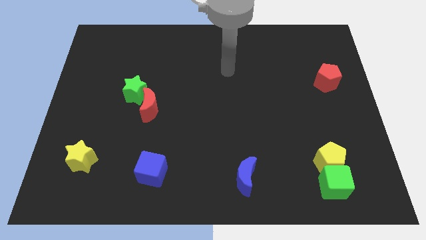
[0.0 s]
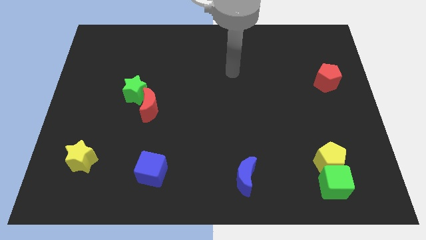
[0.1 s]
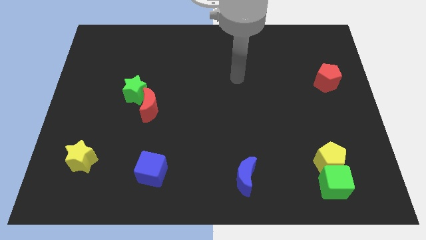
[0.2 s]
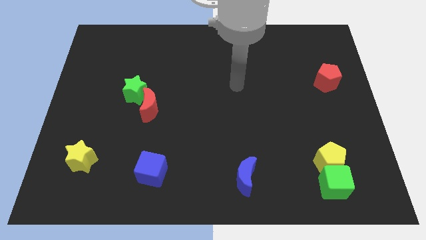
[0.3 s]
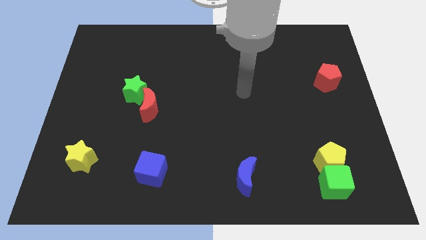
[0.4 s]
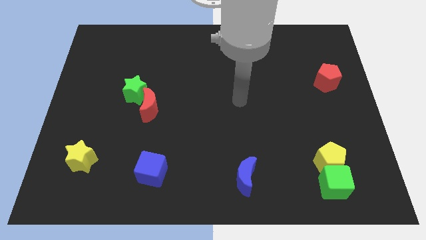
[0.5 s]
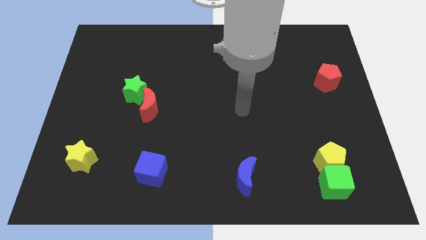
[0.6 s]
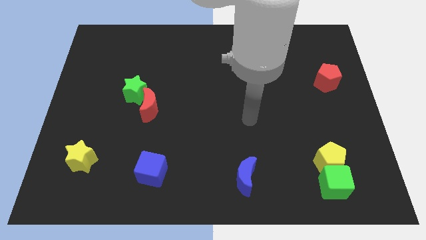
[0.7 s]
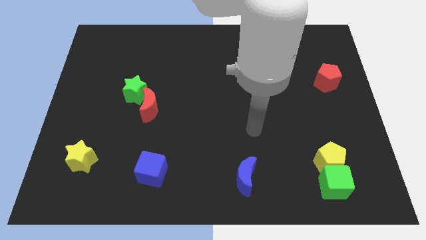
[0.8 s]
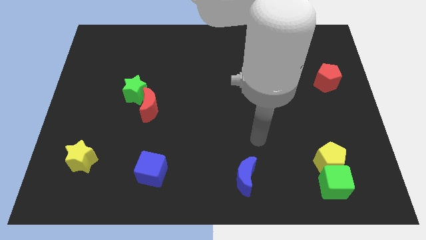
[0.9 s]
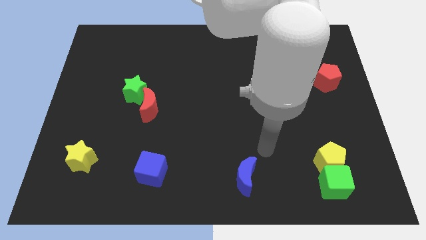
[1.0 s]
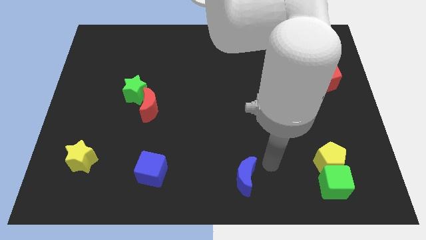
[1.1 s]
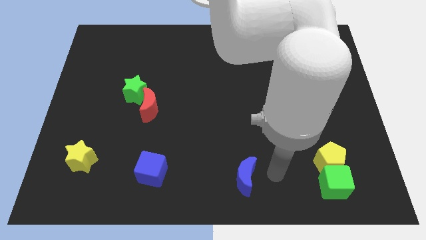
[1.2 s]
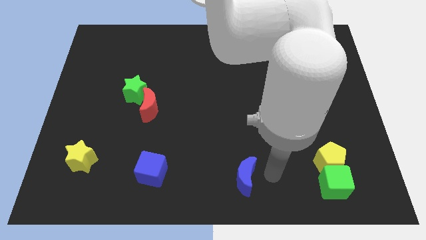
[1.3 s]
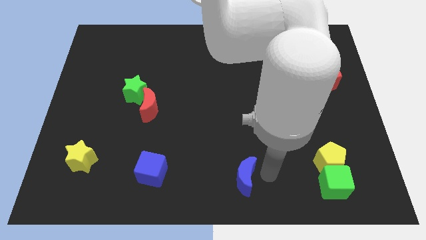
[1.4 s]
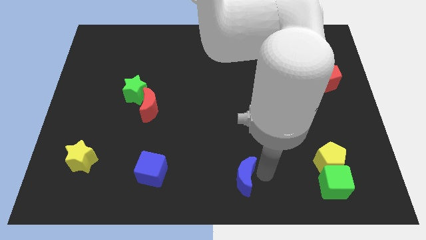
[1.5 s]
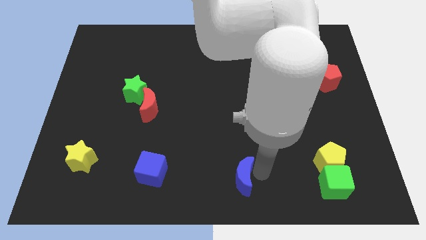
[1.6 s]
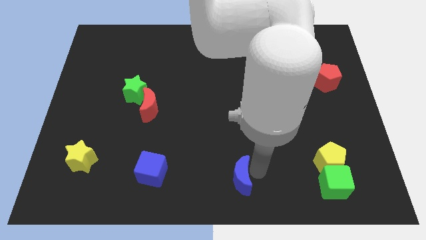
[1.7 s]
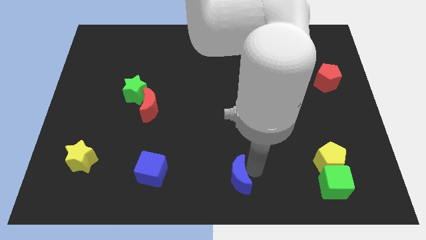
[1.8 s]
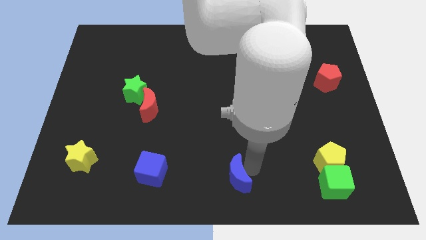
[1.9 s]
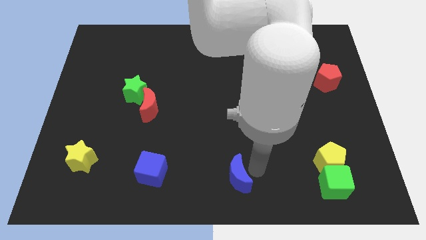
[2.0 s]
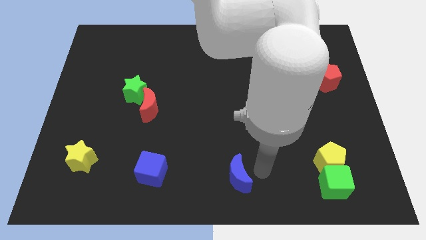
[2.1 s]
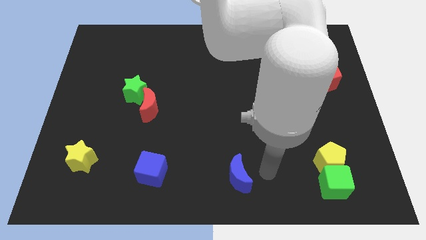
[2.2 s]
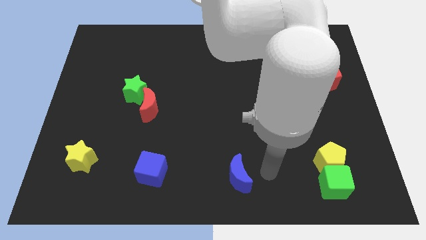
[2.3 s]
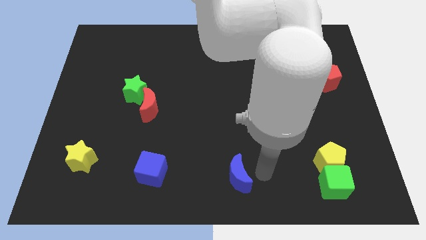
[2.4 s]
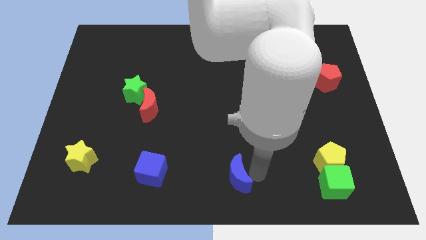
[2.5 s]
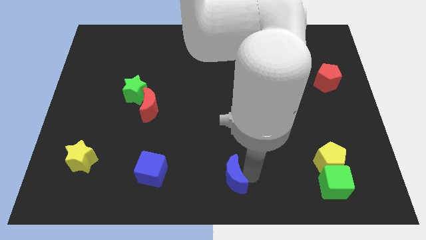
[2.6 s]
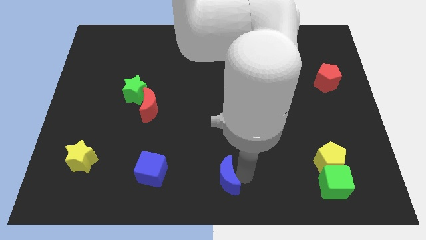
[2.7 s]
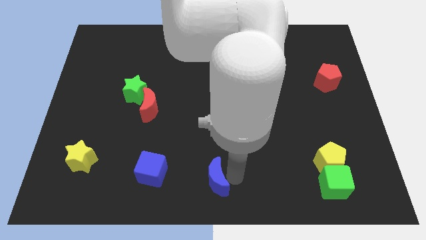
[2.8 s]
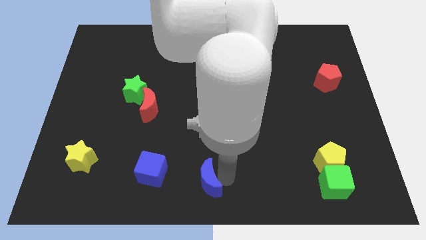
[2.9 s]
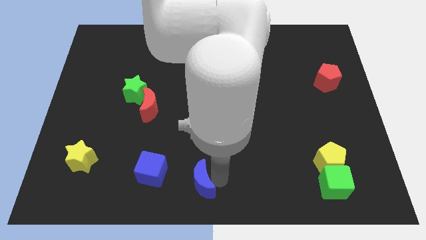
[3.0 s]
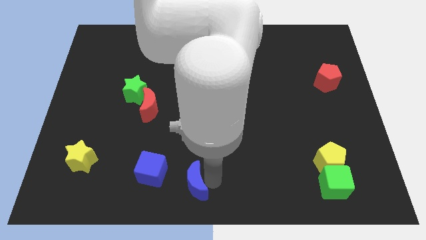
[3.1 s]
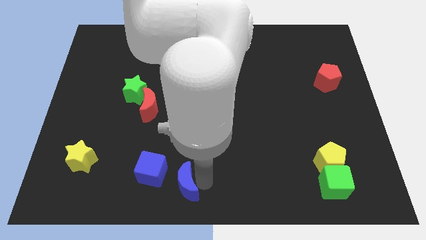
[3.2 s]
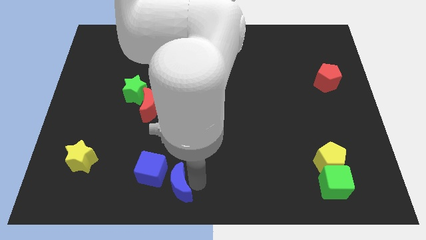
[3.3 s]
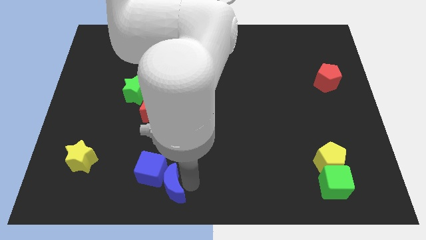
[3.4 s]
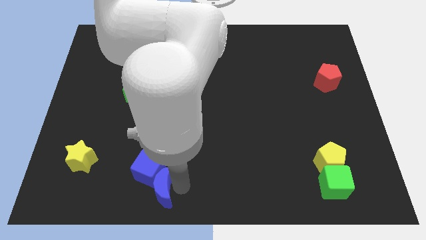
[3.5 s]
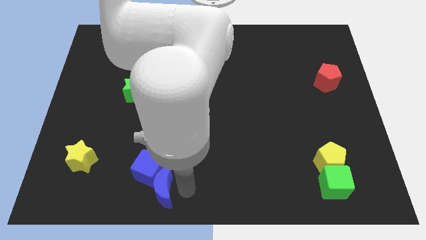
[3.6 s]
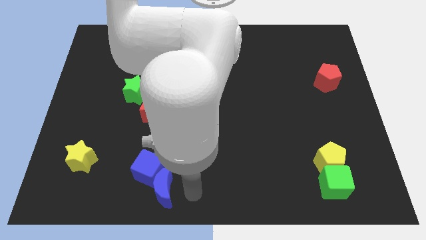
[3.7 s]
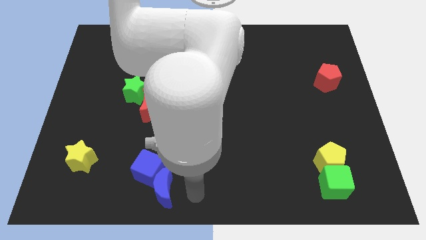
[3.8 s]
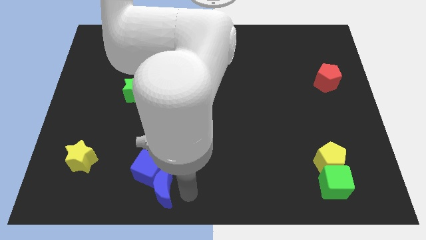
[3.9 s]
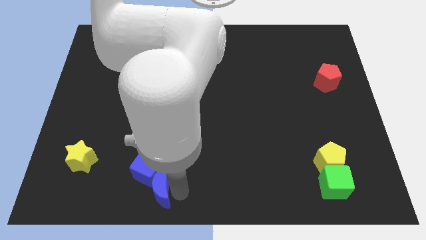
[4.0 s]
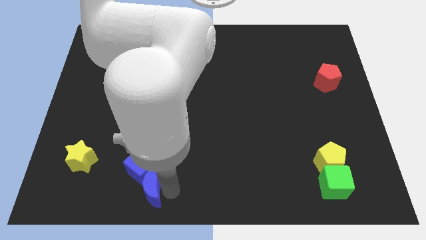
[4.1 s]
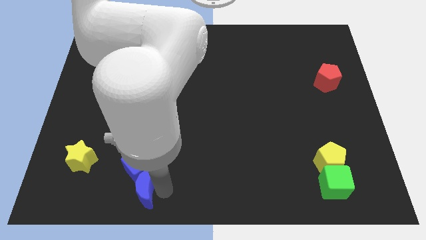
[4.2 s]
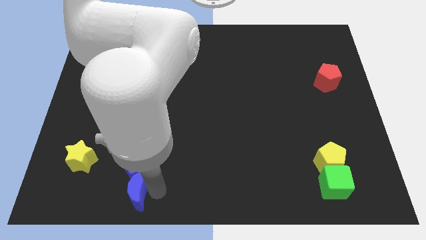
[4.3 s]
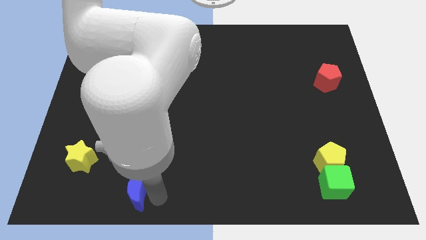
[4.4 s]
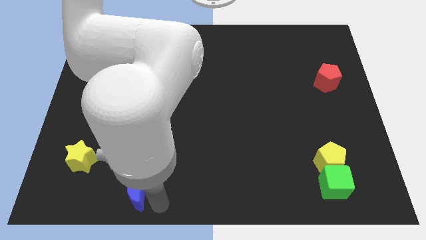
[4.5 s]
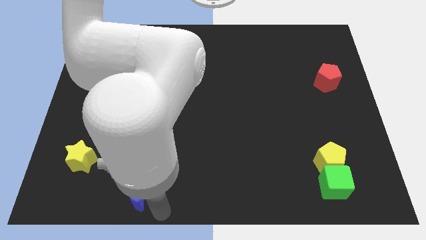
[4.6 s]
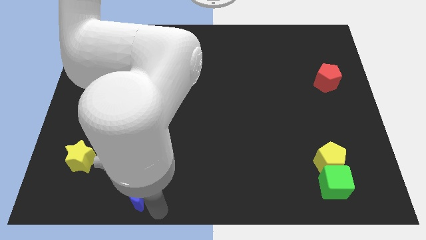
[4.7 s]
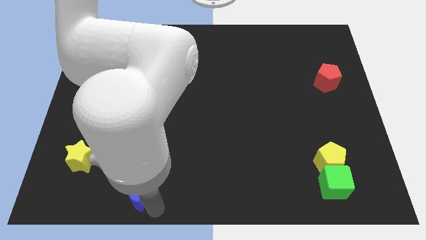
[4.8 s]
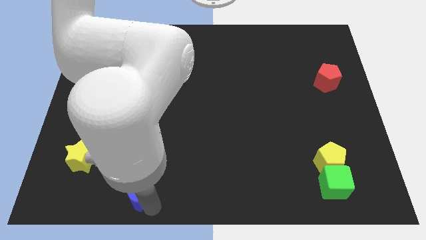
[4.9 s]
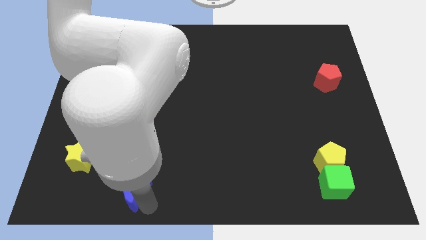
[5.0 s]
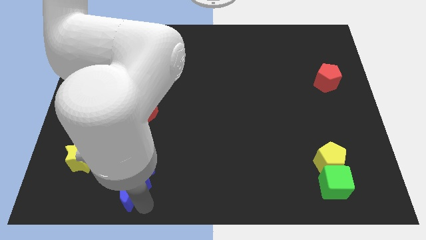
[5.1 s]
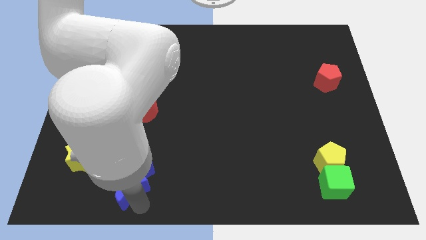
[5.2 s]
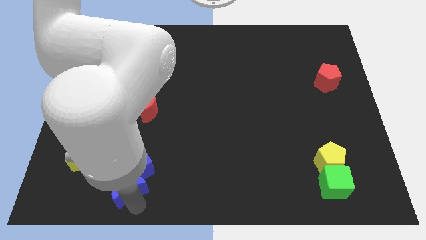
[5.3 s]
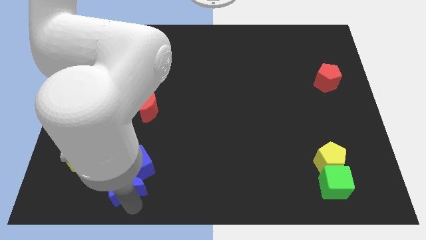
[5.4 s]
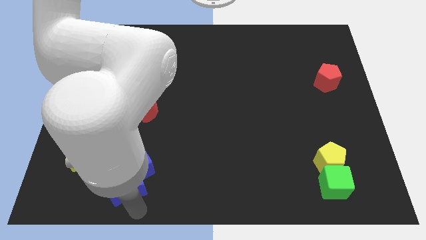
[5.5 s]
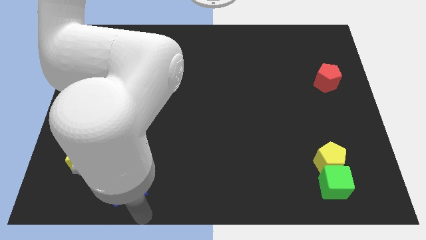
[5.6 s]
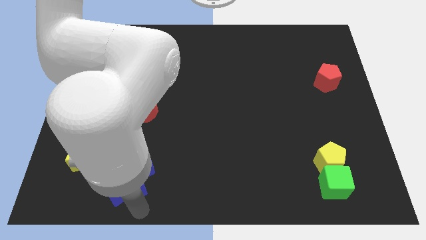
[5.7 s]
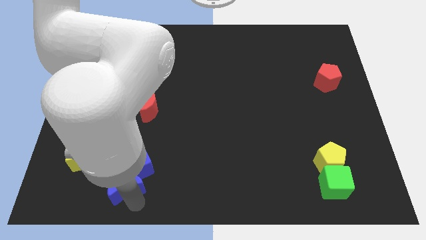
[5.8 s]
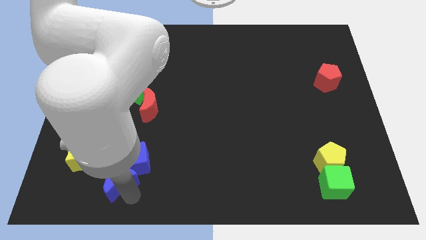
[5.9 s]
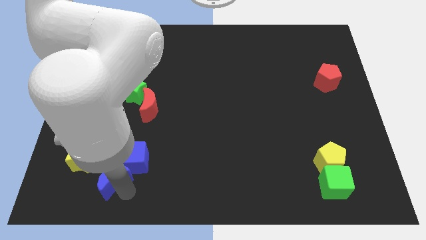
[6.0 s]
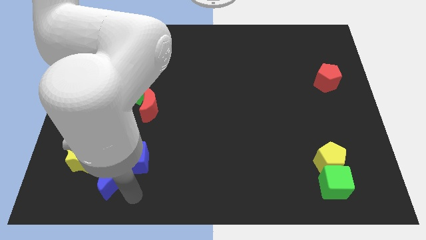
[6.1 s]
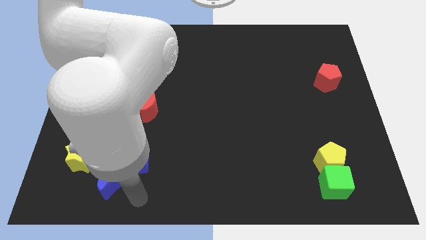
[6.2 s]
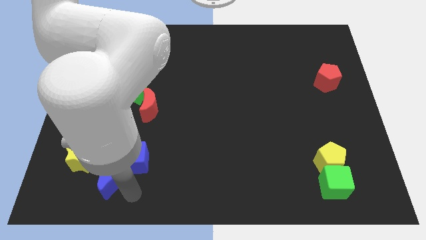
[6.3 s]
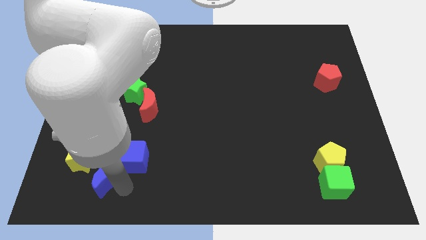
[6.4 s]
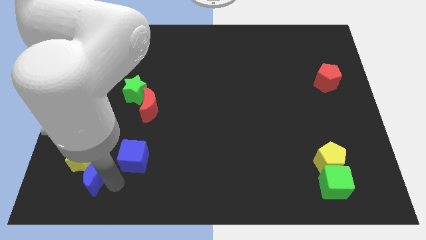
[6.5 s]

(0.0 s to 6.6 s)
push the blue moon close to the yellow star

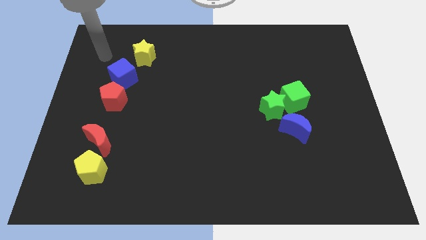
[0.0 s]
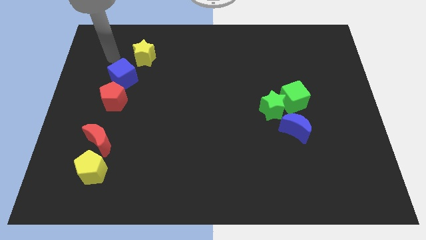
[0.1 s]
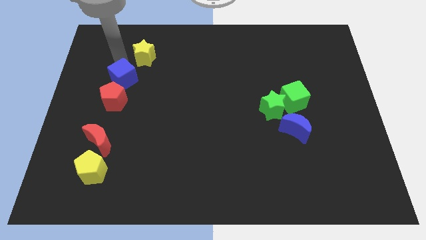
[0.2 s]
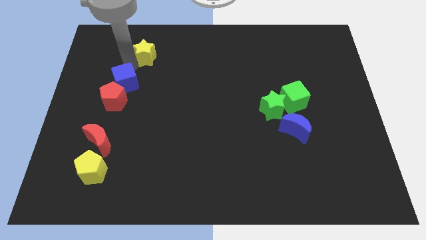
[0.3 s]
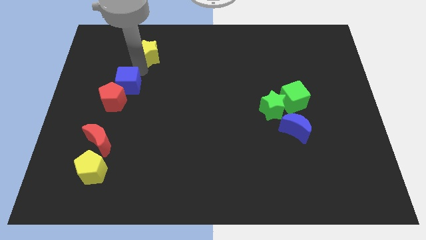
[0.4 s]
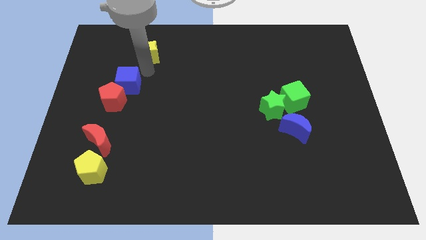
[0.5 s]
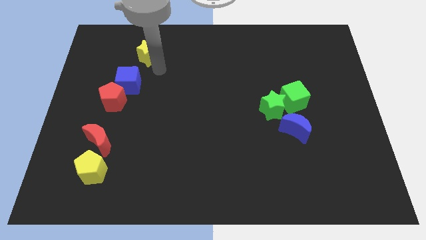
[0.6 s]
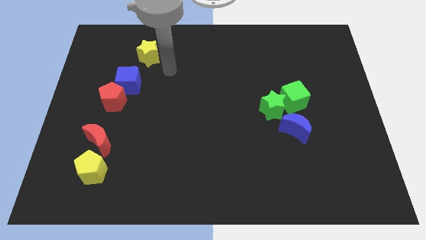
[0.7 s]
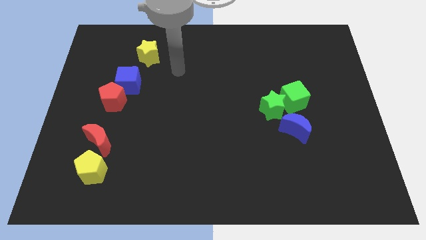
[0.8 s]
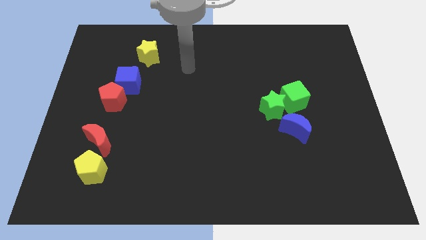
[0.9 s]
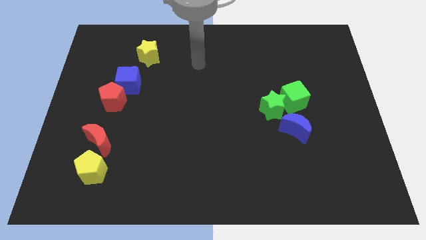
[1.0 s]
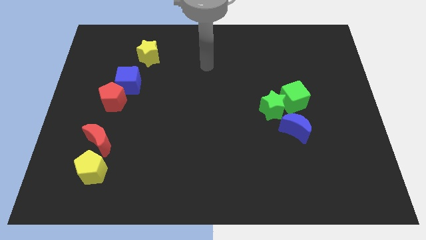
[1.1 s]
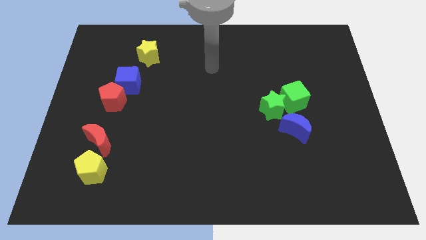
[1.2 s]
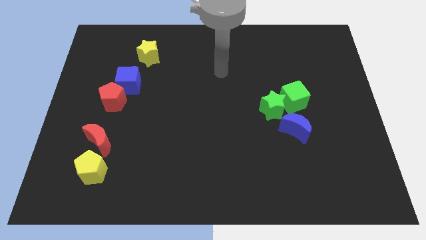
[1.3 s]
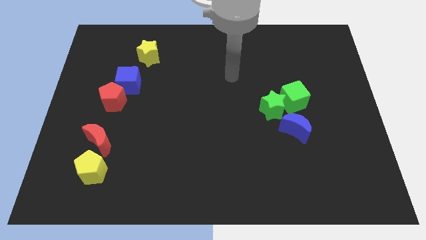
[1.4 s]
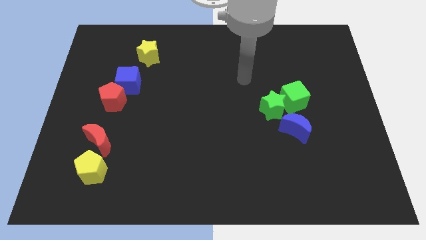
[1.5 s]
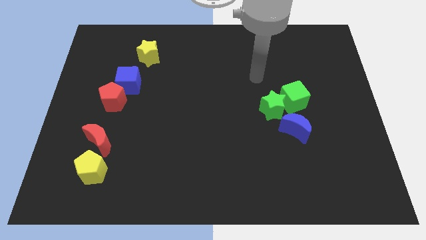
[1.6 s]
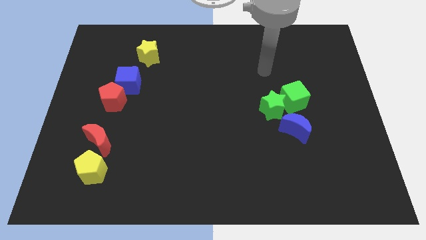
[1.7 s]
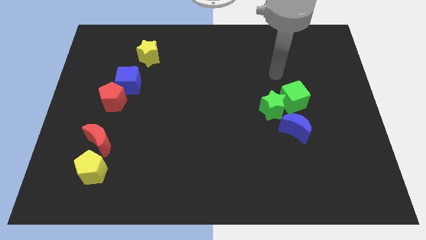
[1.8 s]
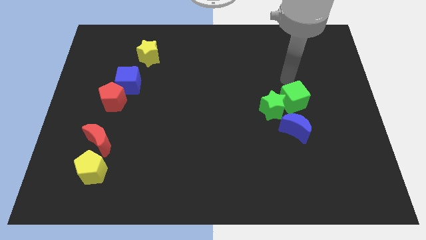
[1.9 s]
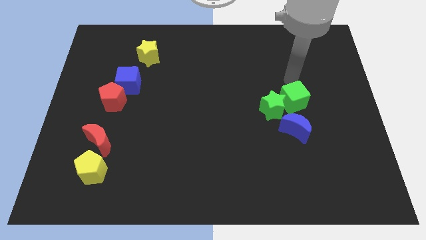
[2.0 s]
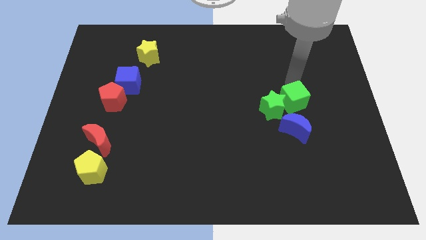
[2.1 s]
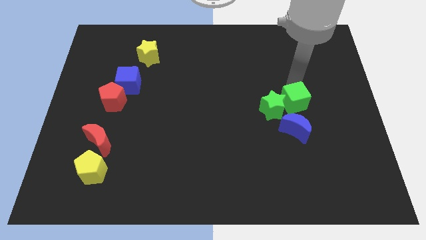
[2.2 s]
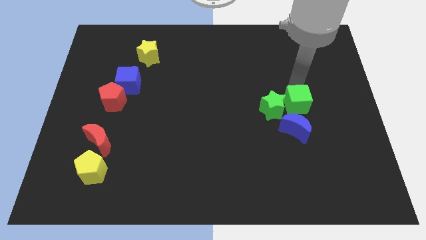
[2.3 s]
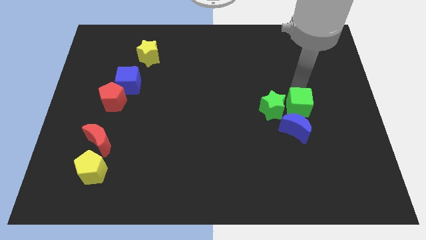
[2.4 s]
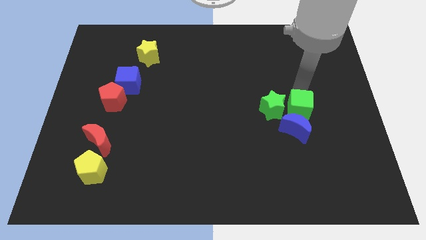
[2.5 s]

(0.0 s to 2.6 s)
slide the green cube towards the blue moon
